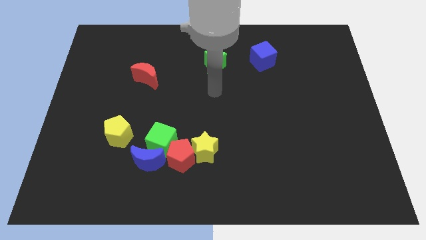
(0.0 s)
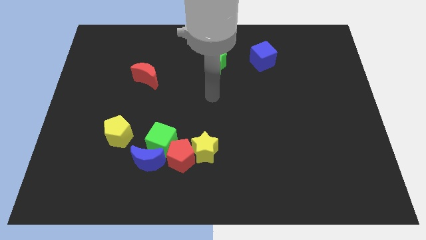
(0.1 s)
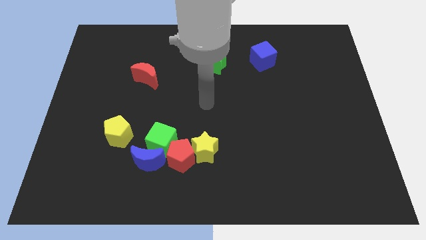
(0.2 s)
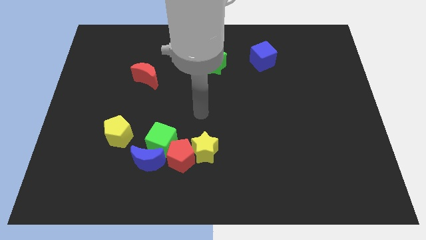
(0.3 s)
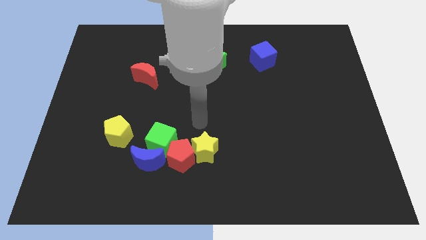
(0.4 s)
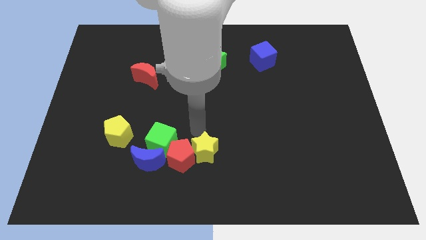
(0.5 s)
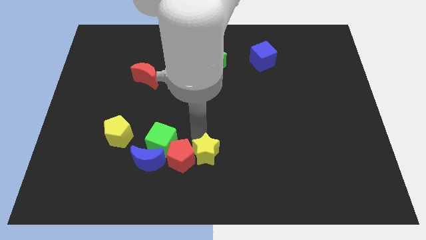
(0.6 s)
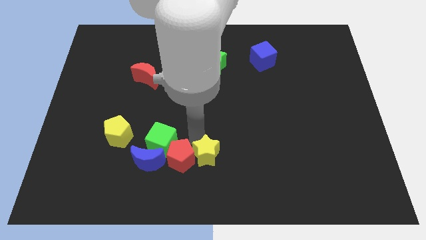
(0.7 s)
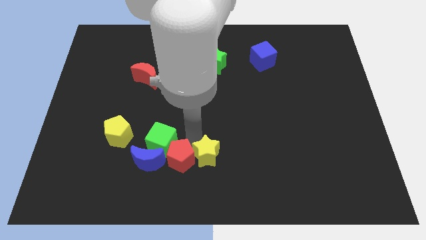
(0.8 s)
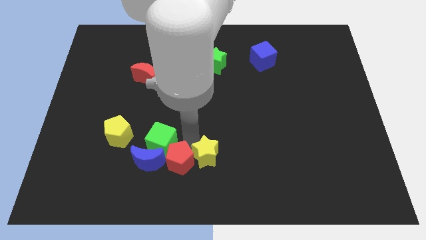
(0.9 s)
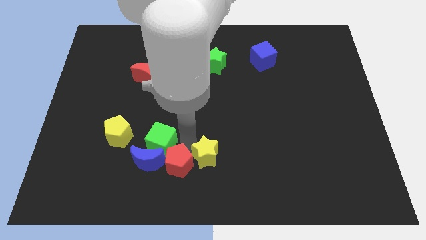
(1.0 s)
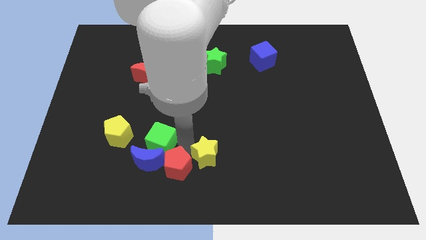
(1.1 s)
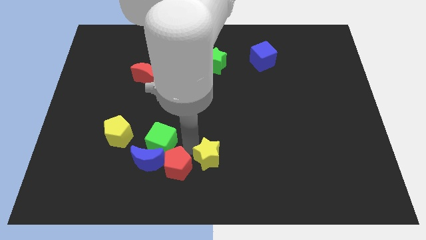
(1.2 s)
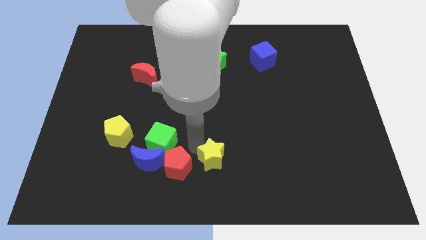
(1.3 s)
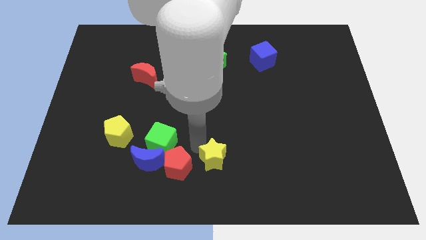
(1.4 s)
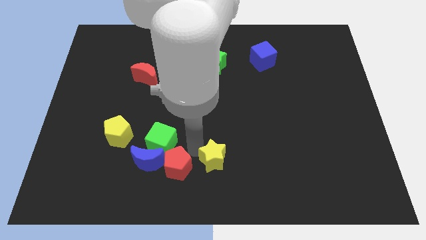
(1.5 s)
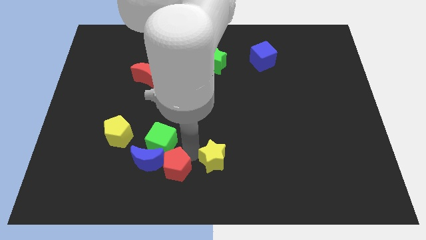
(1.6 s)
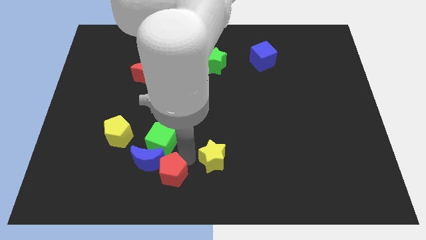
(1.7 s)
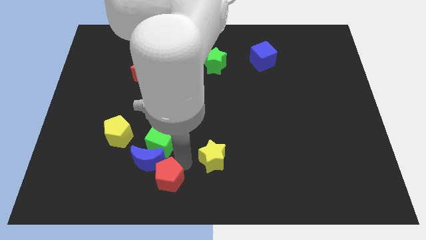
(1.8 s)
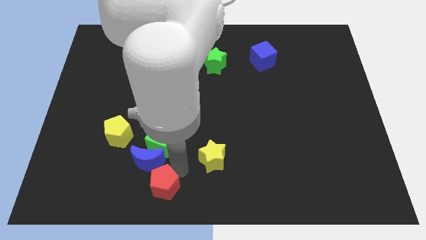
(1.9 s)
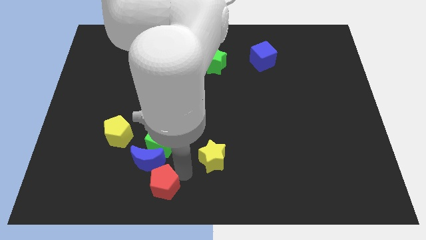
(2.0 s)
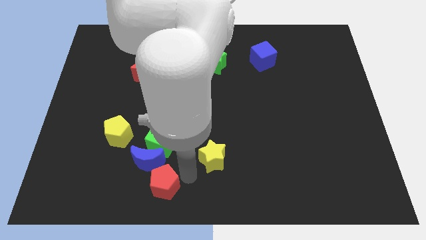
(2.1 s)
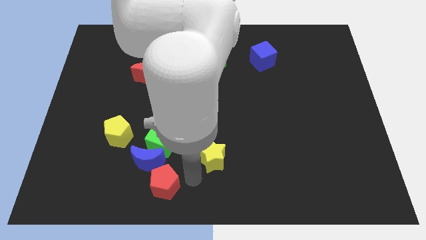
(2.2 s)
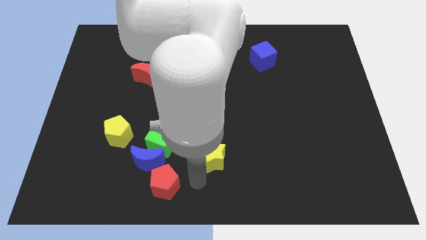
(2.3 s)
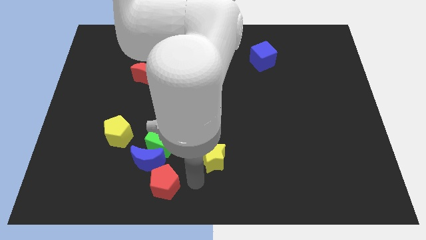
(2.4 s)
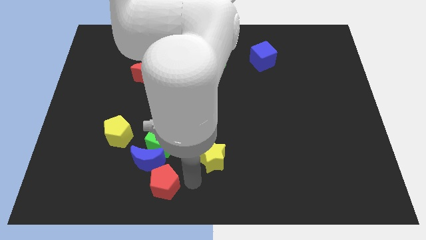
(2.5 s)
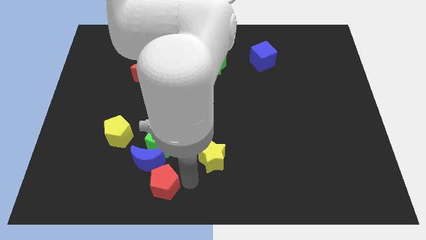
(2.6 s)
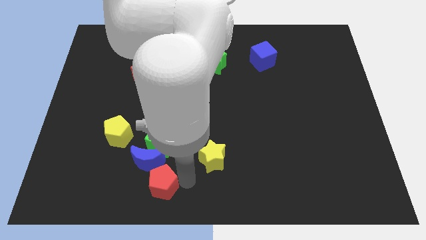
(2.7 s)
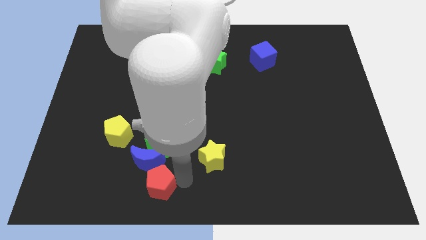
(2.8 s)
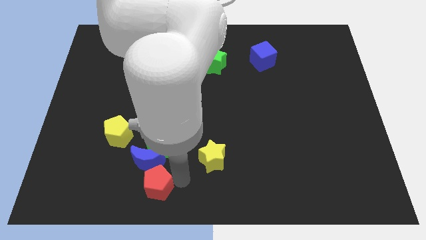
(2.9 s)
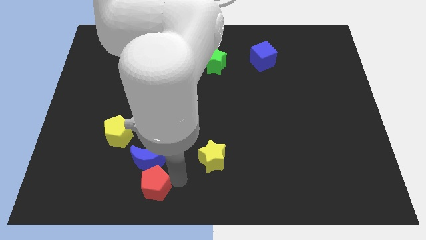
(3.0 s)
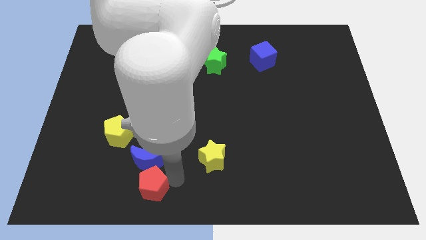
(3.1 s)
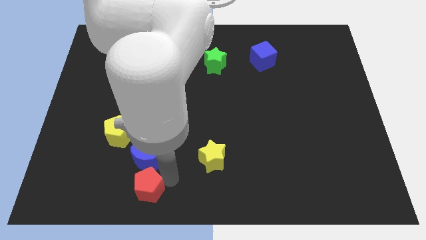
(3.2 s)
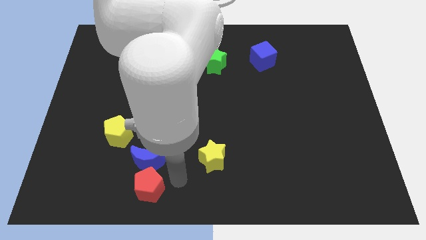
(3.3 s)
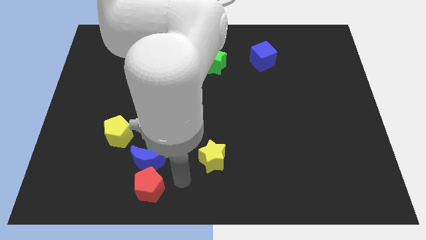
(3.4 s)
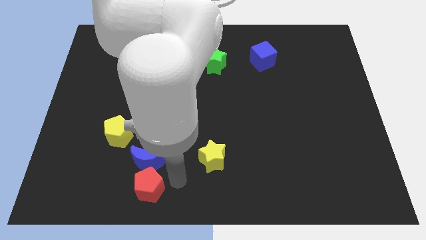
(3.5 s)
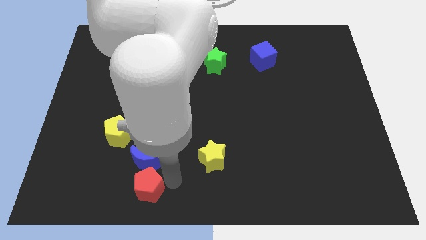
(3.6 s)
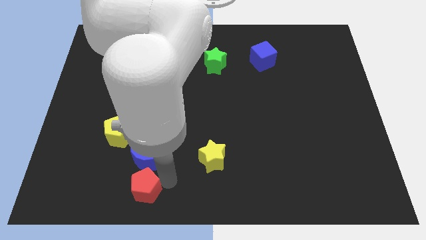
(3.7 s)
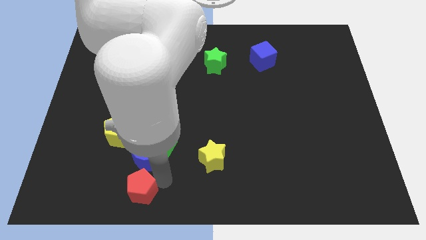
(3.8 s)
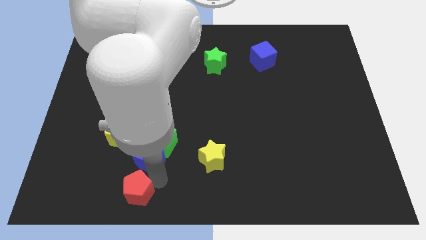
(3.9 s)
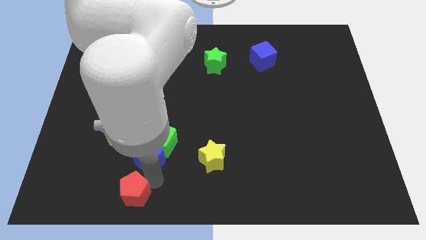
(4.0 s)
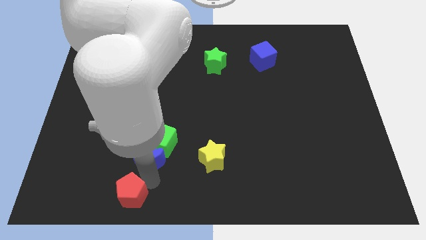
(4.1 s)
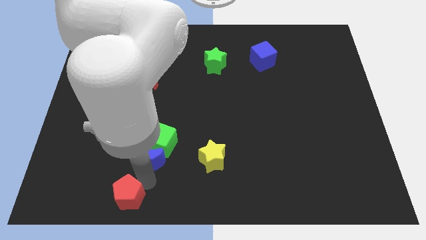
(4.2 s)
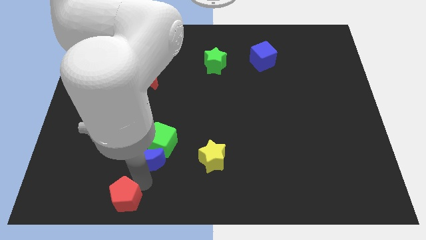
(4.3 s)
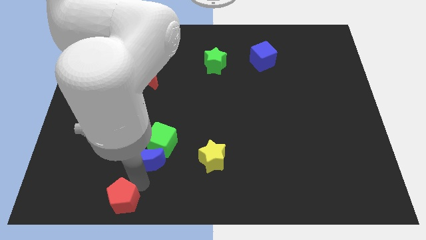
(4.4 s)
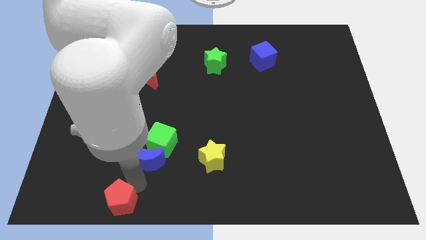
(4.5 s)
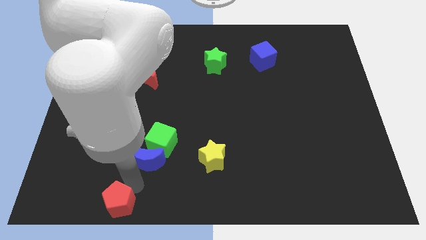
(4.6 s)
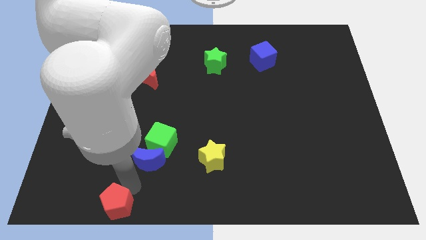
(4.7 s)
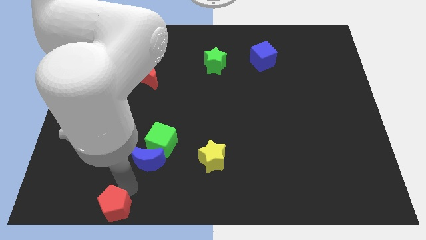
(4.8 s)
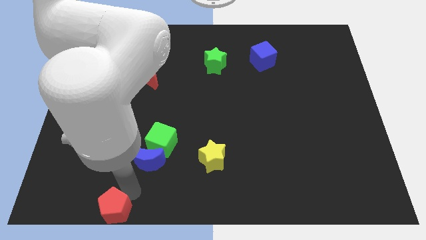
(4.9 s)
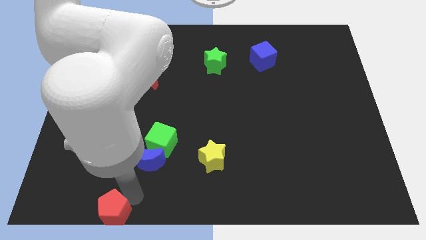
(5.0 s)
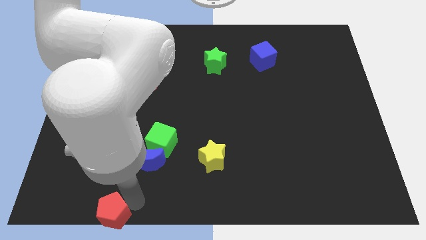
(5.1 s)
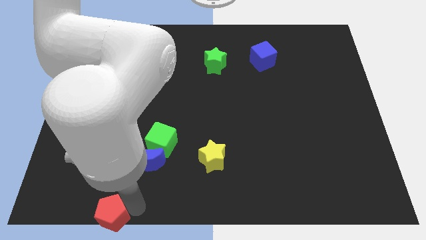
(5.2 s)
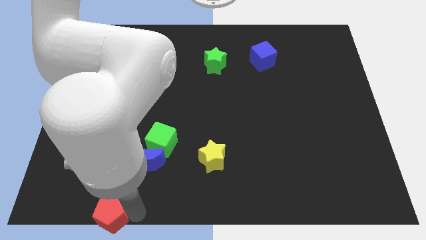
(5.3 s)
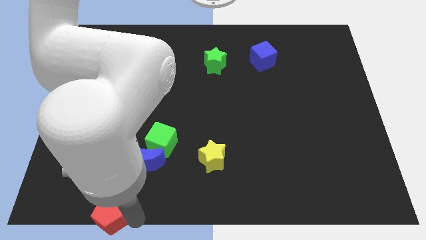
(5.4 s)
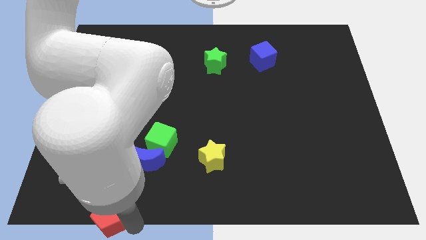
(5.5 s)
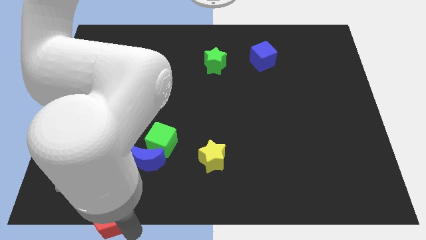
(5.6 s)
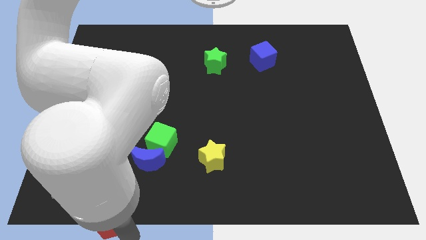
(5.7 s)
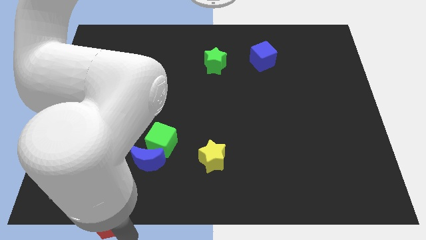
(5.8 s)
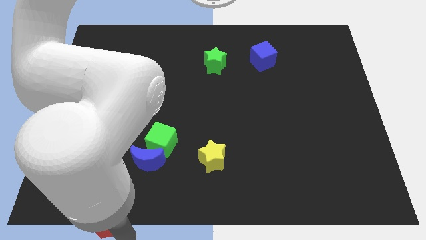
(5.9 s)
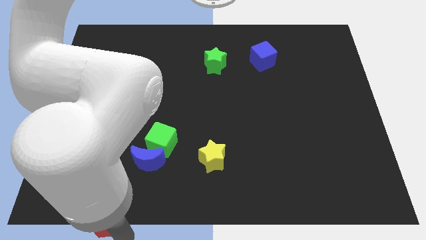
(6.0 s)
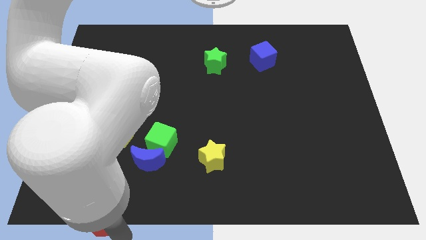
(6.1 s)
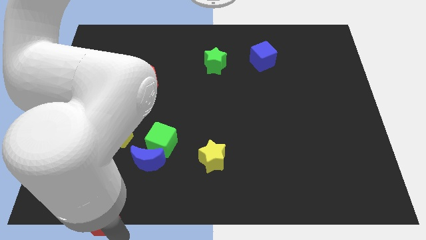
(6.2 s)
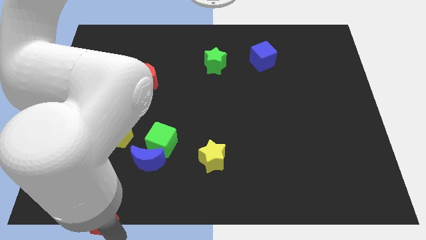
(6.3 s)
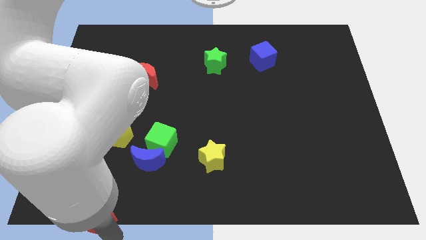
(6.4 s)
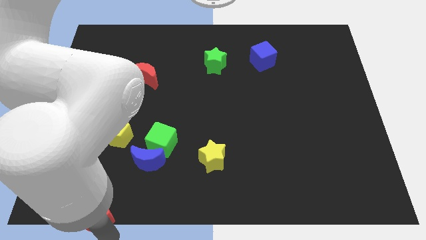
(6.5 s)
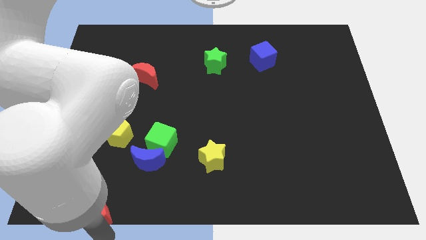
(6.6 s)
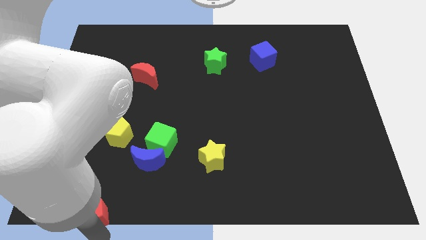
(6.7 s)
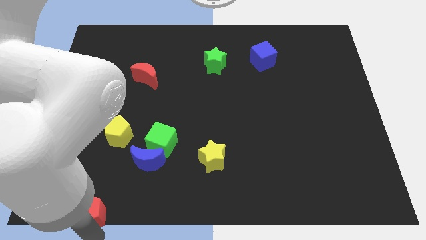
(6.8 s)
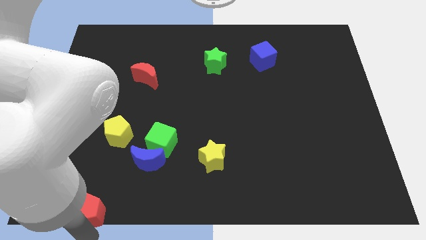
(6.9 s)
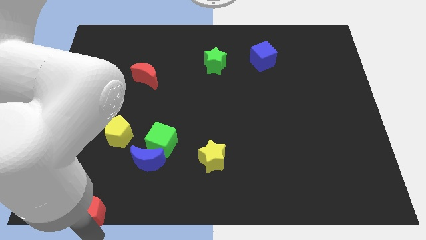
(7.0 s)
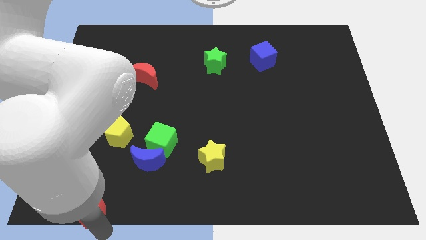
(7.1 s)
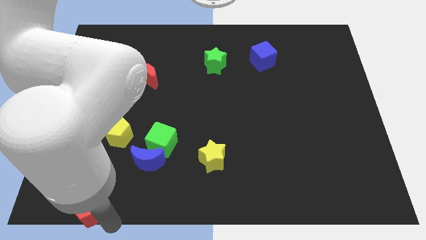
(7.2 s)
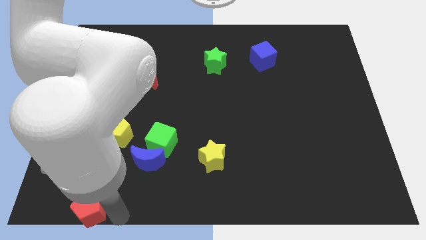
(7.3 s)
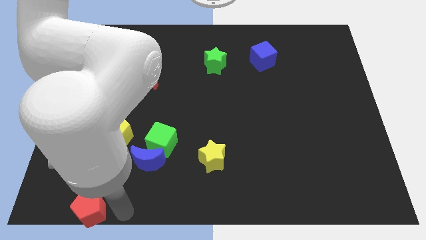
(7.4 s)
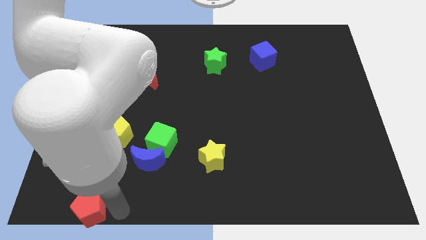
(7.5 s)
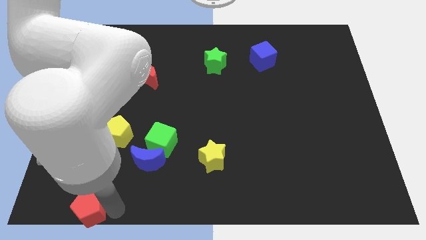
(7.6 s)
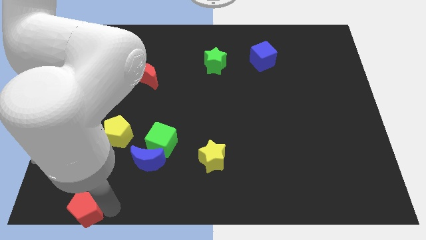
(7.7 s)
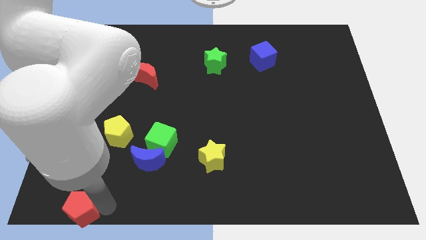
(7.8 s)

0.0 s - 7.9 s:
move the red pentagon to the bottom left of the board
